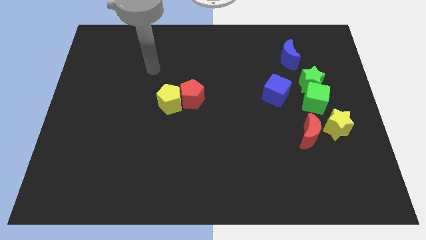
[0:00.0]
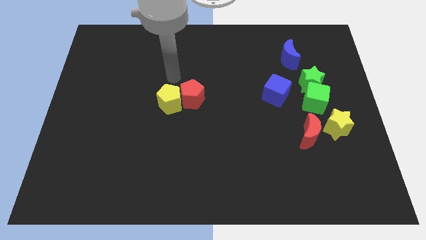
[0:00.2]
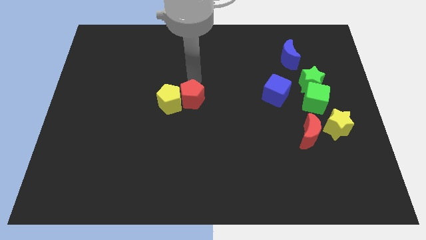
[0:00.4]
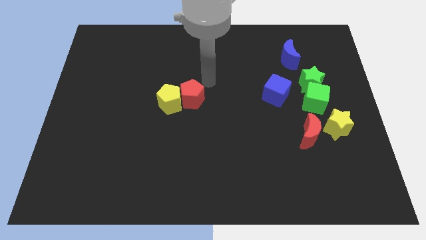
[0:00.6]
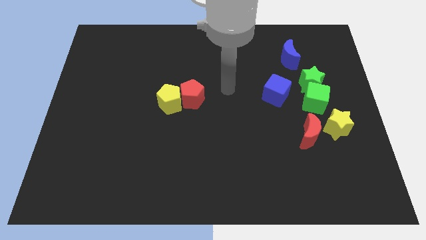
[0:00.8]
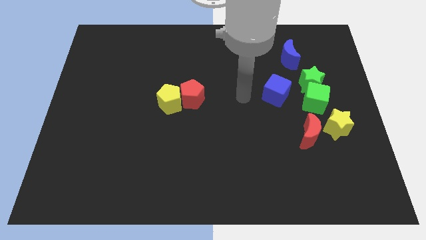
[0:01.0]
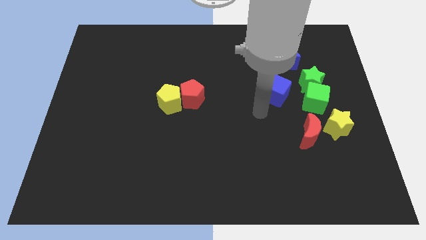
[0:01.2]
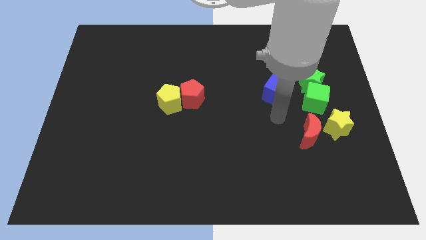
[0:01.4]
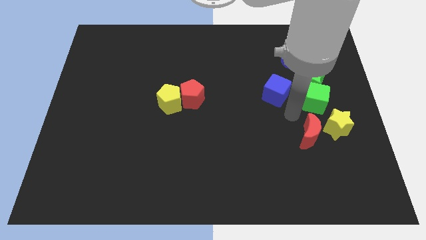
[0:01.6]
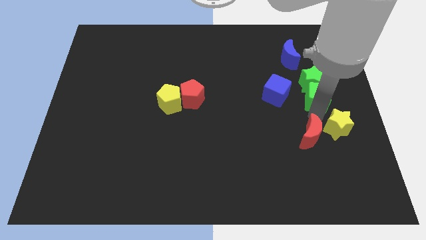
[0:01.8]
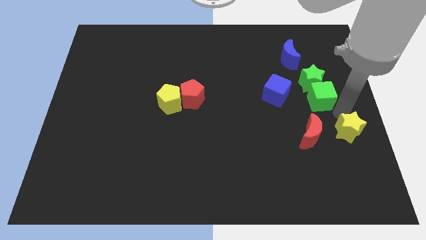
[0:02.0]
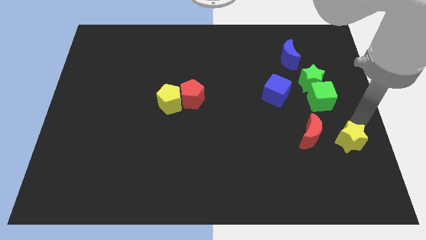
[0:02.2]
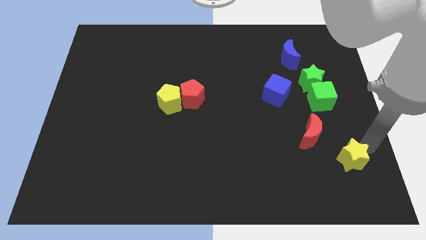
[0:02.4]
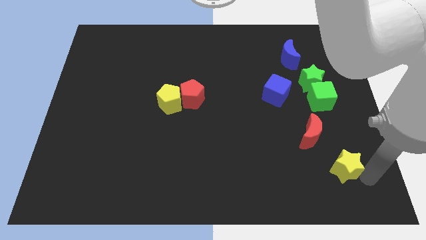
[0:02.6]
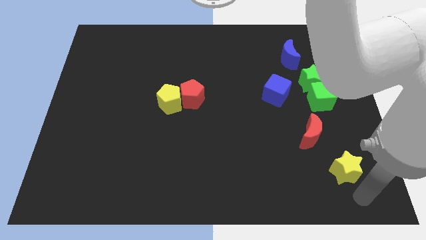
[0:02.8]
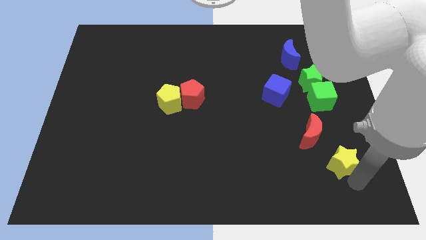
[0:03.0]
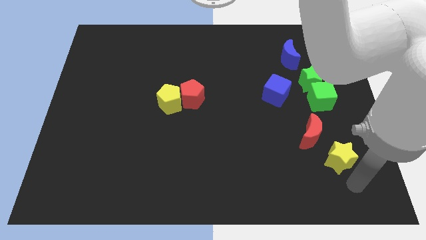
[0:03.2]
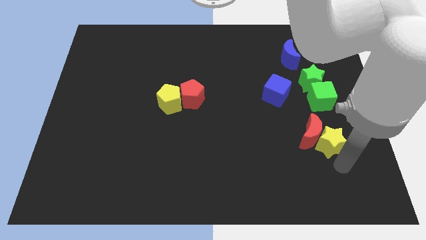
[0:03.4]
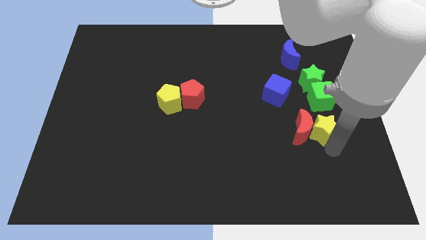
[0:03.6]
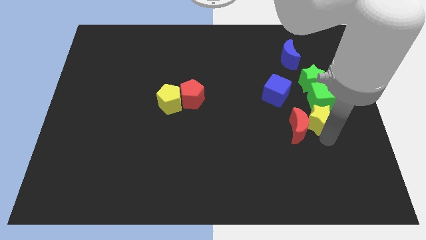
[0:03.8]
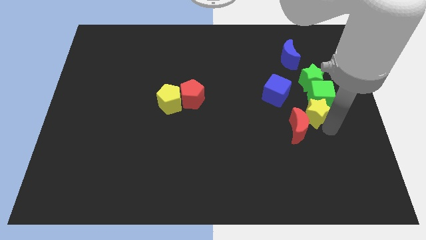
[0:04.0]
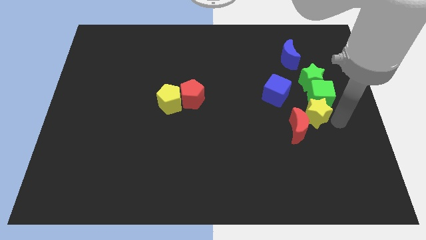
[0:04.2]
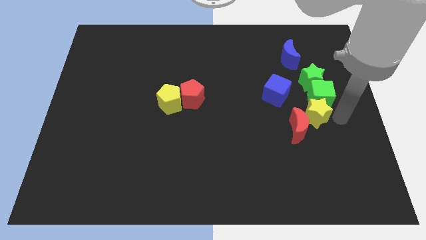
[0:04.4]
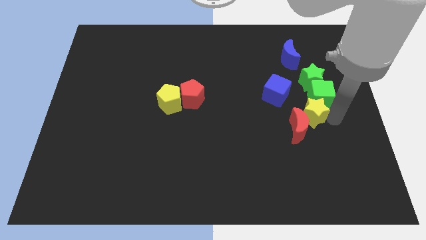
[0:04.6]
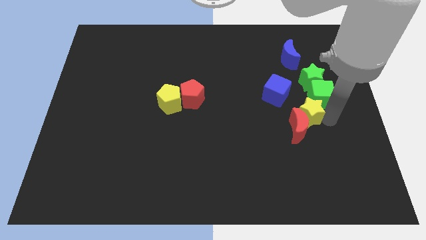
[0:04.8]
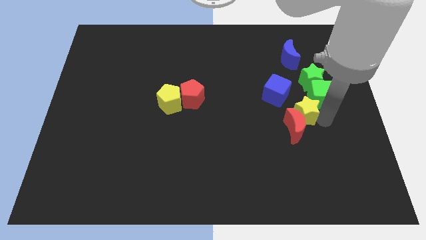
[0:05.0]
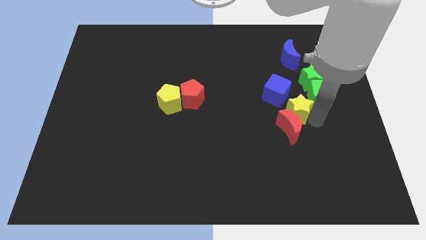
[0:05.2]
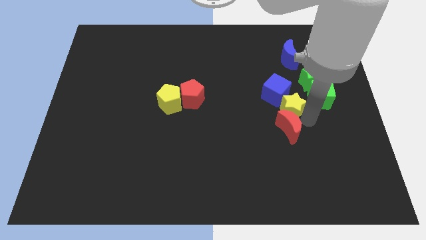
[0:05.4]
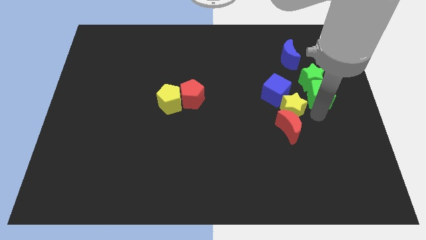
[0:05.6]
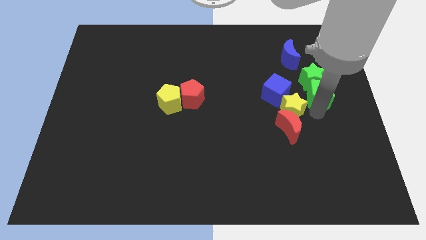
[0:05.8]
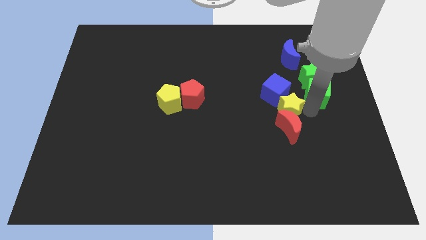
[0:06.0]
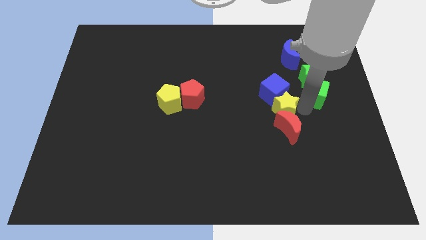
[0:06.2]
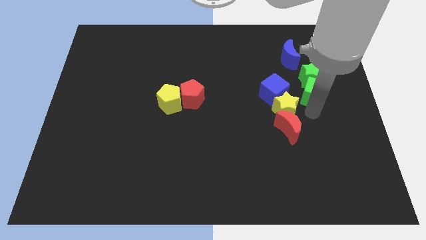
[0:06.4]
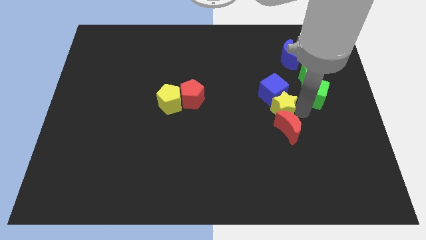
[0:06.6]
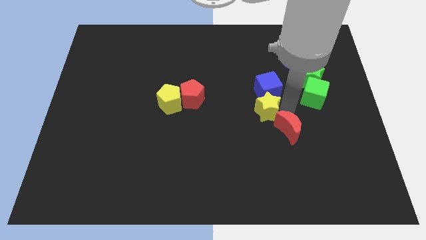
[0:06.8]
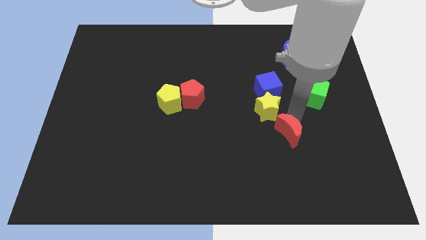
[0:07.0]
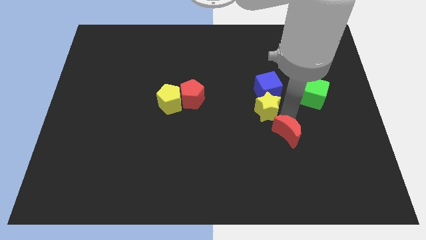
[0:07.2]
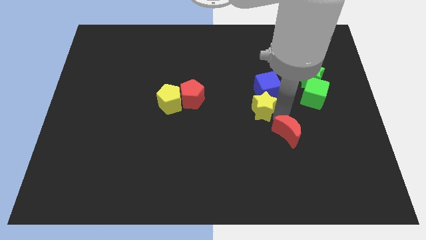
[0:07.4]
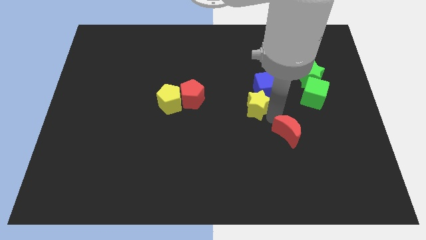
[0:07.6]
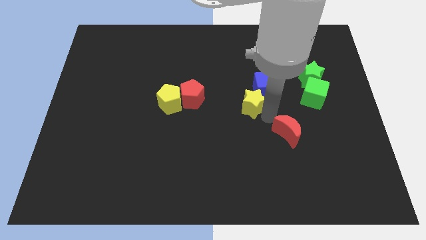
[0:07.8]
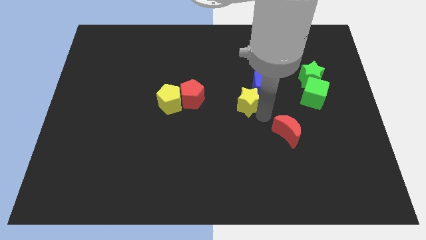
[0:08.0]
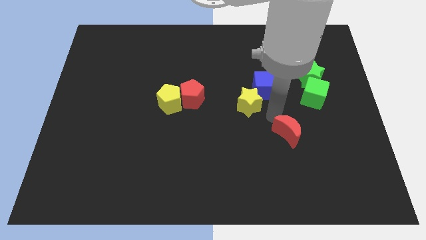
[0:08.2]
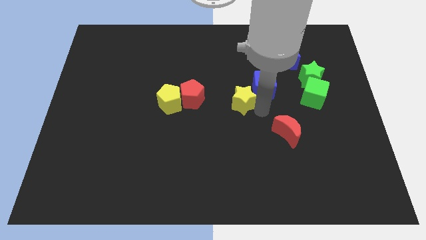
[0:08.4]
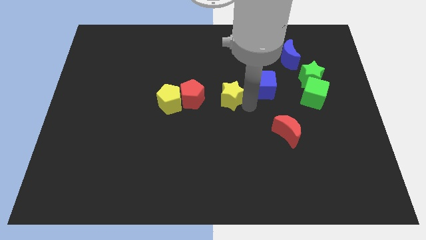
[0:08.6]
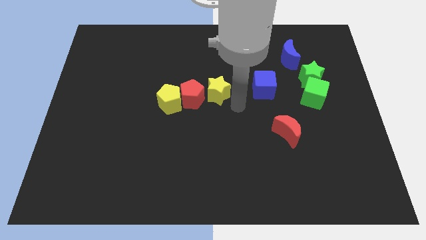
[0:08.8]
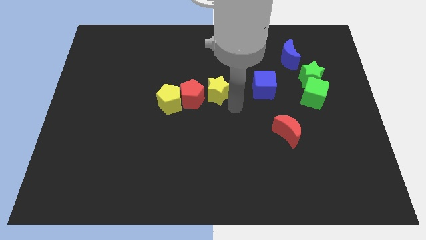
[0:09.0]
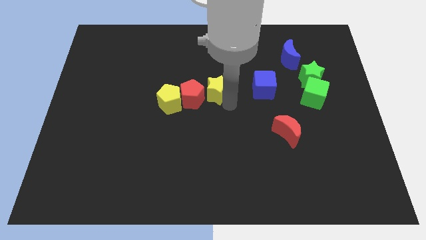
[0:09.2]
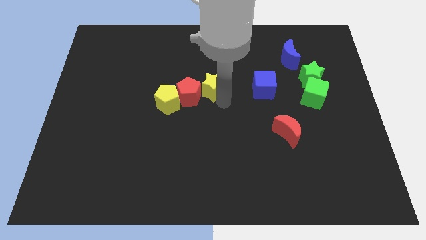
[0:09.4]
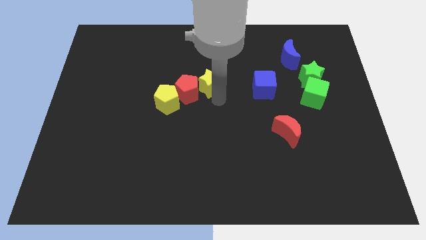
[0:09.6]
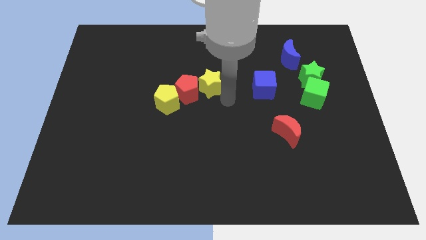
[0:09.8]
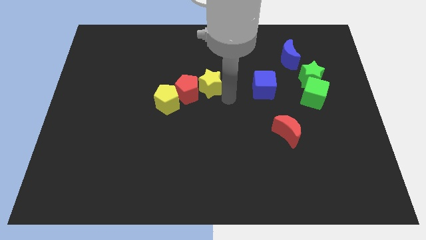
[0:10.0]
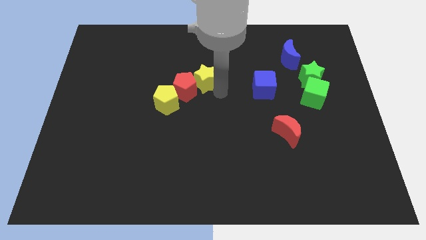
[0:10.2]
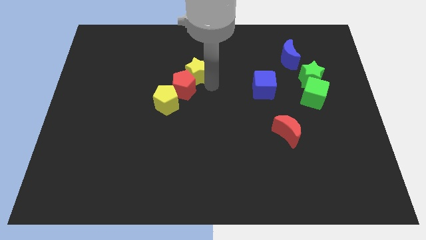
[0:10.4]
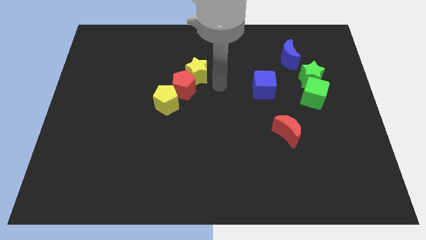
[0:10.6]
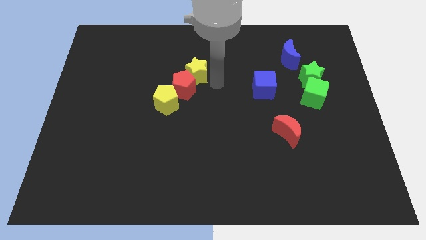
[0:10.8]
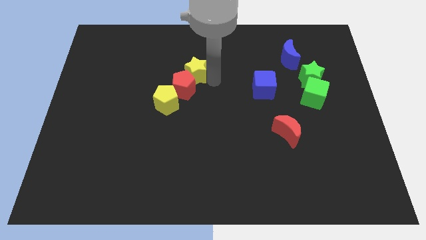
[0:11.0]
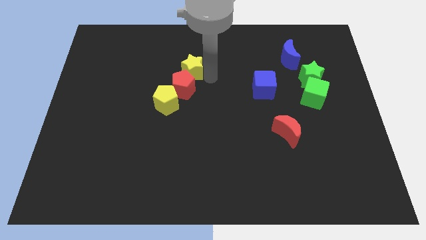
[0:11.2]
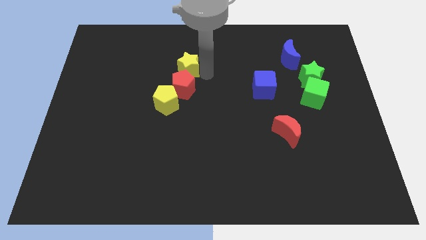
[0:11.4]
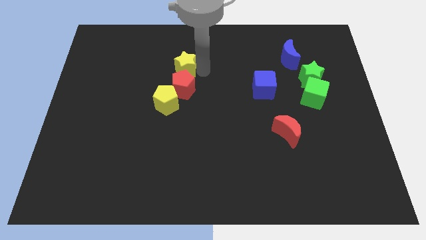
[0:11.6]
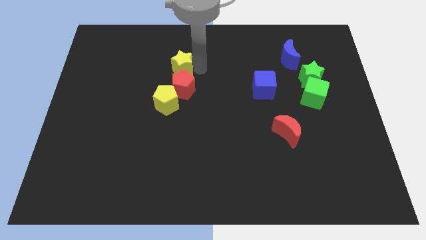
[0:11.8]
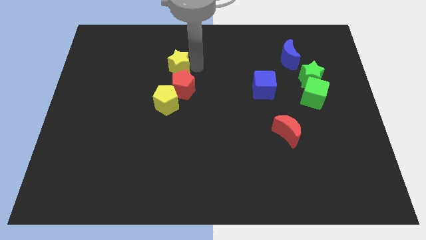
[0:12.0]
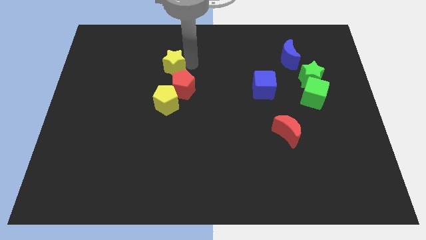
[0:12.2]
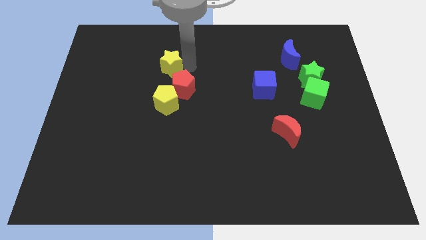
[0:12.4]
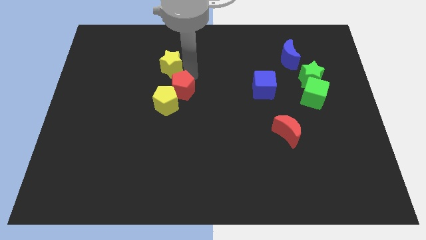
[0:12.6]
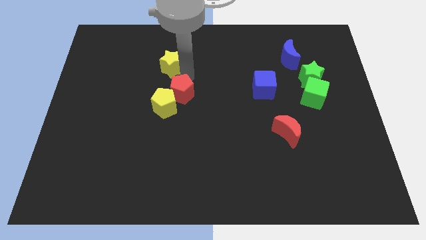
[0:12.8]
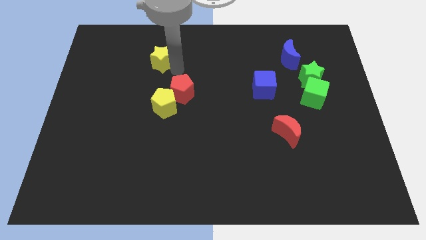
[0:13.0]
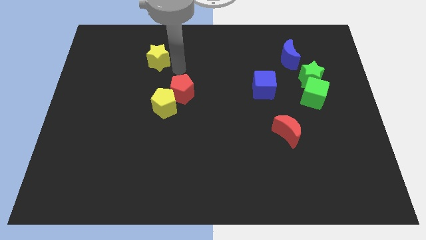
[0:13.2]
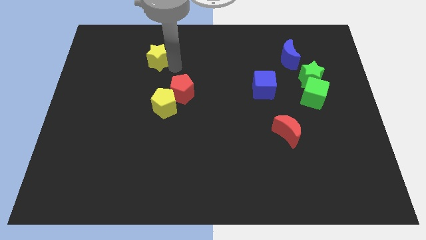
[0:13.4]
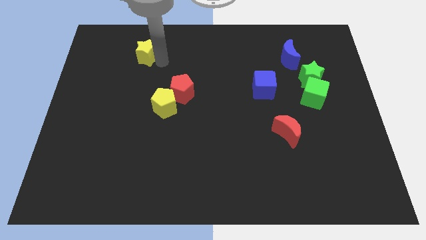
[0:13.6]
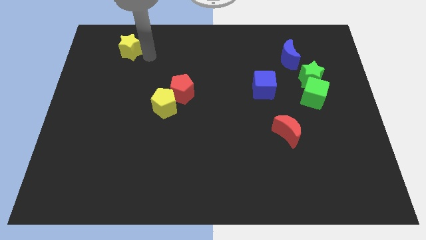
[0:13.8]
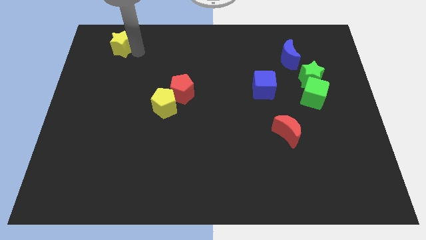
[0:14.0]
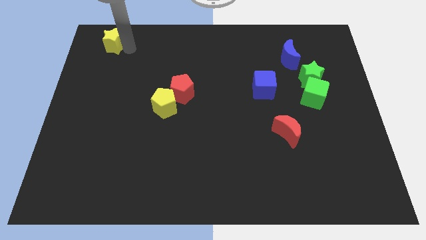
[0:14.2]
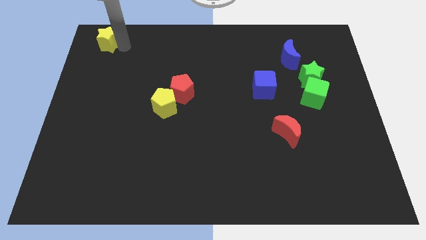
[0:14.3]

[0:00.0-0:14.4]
move the yellow star to the top left corner
